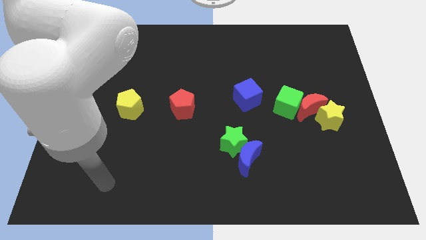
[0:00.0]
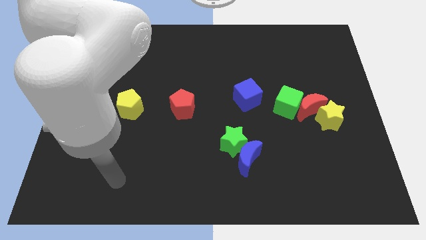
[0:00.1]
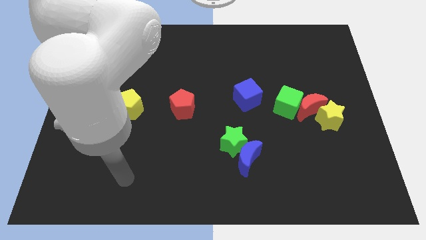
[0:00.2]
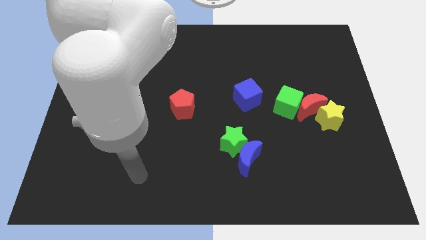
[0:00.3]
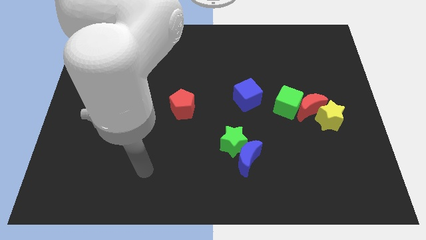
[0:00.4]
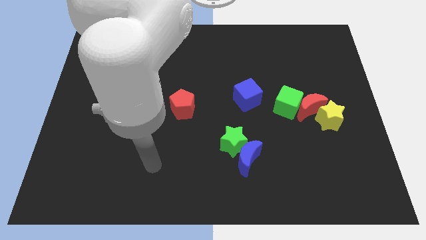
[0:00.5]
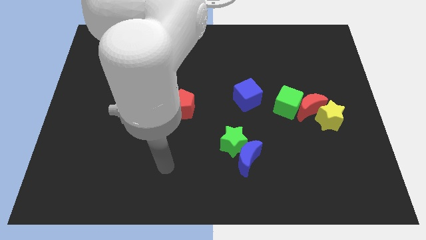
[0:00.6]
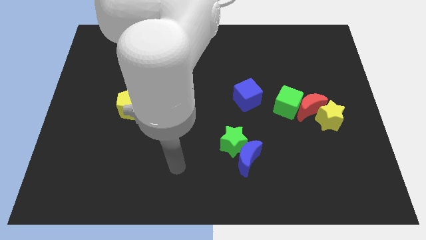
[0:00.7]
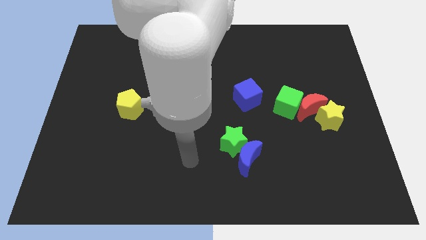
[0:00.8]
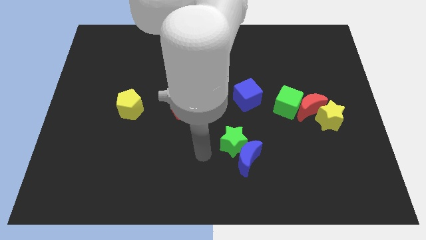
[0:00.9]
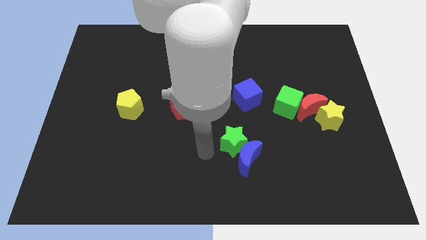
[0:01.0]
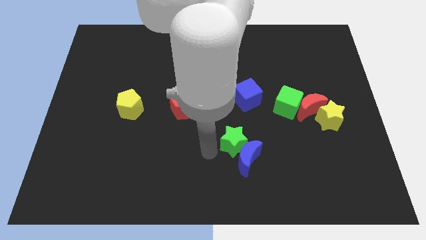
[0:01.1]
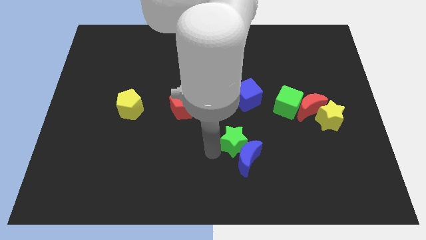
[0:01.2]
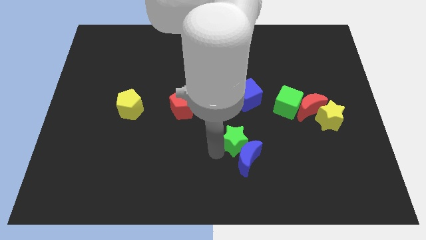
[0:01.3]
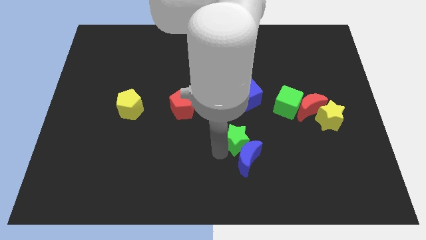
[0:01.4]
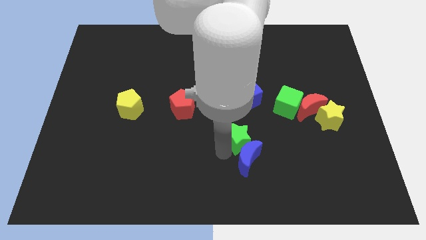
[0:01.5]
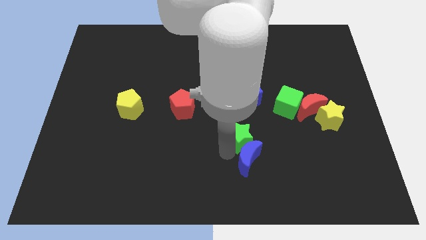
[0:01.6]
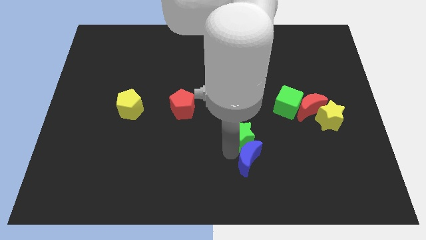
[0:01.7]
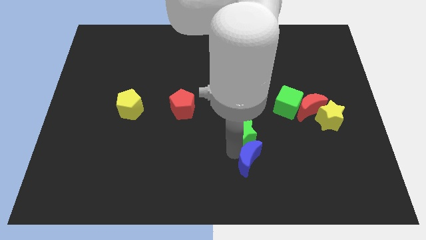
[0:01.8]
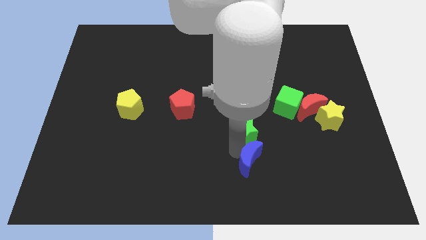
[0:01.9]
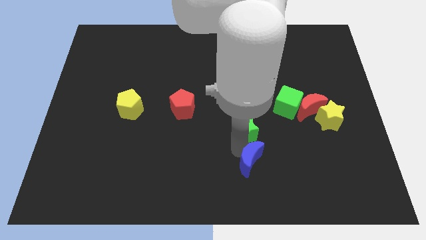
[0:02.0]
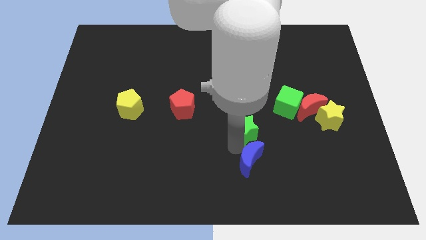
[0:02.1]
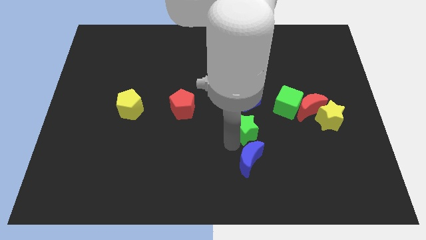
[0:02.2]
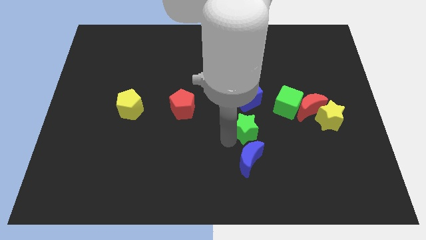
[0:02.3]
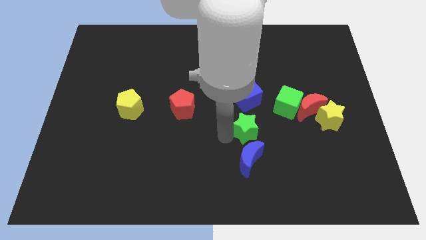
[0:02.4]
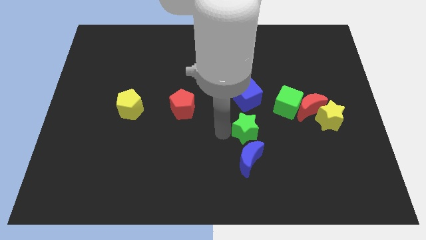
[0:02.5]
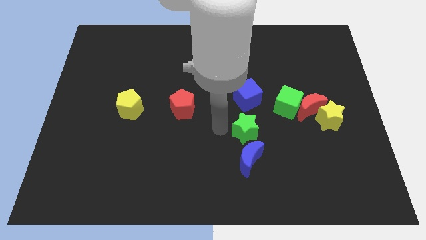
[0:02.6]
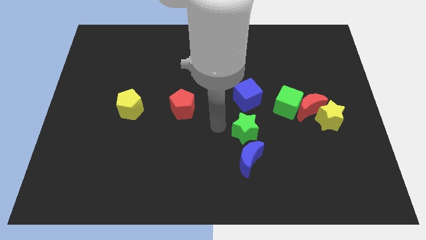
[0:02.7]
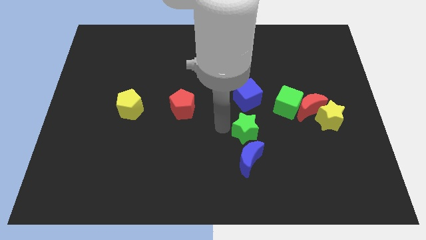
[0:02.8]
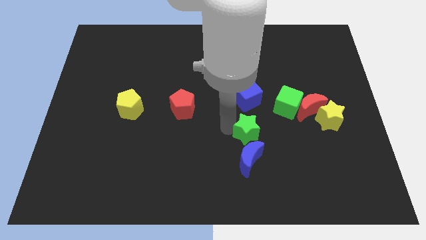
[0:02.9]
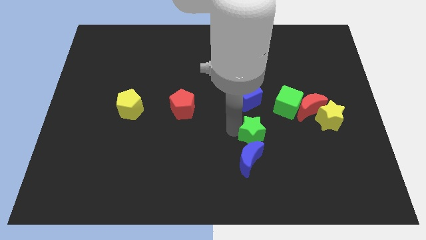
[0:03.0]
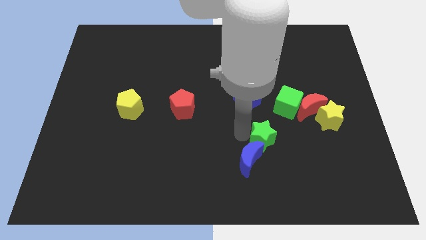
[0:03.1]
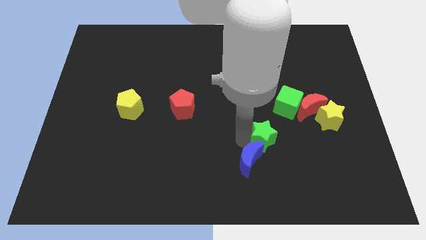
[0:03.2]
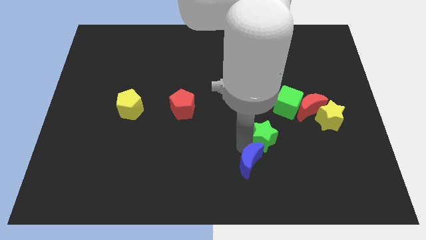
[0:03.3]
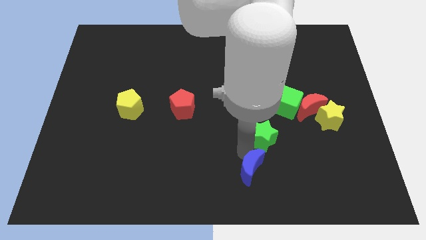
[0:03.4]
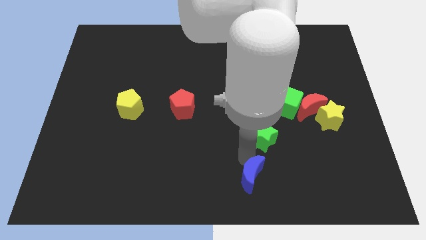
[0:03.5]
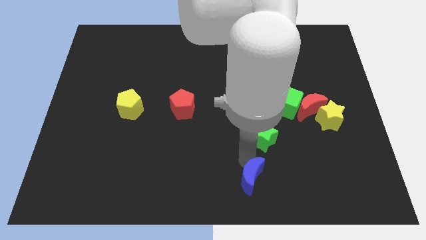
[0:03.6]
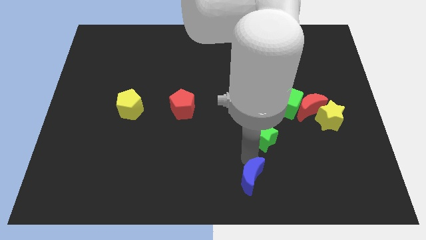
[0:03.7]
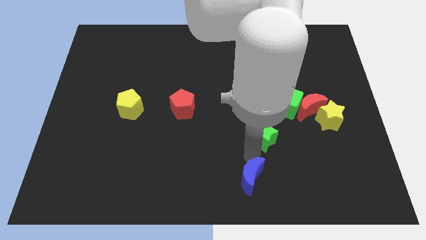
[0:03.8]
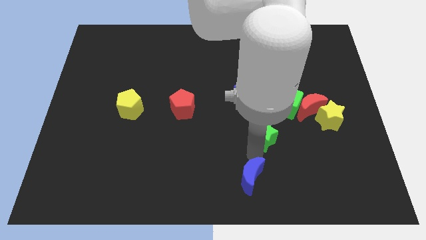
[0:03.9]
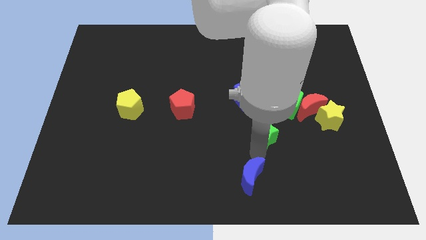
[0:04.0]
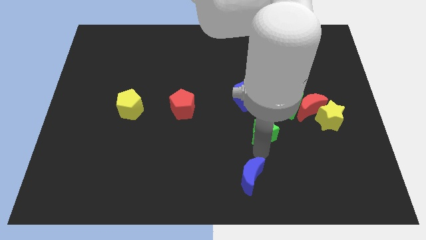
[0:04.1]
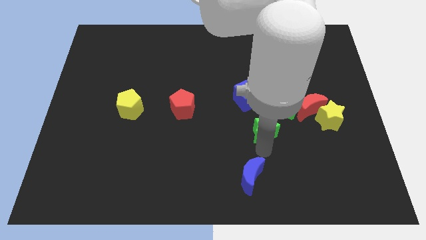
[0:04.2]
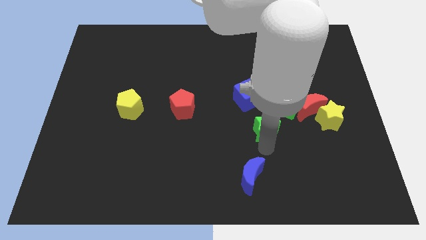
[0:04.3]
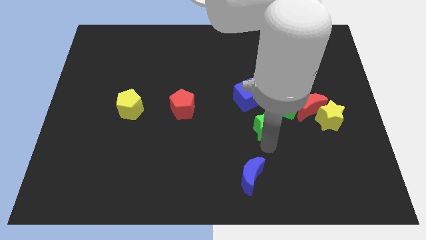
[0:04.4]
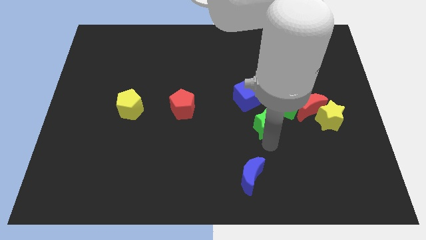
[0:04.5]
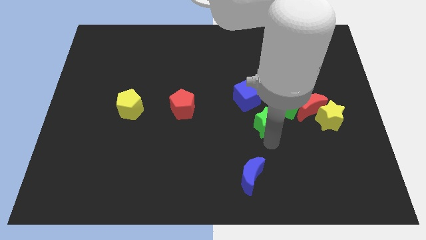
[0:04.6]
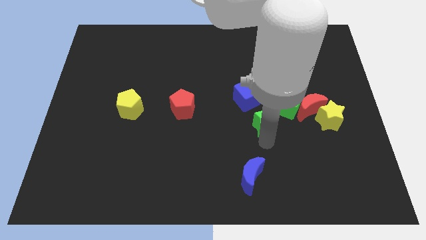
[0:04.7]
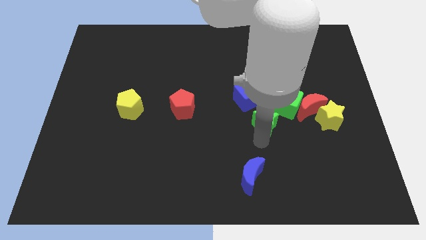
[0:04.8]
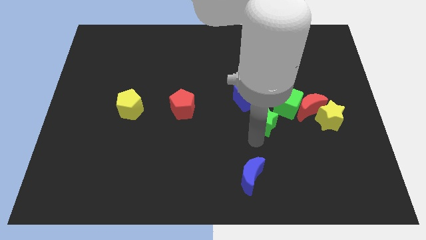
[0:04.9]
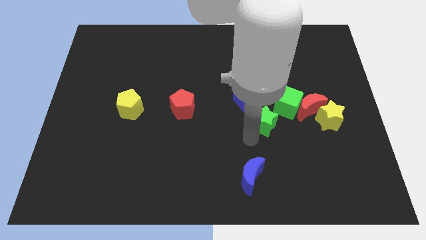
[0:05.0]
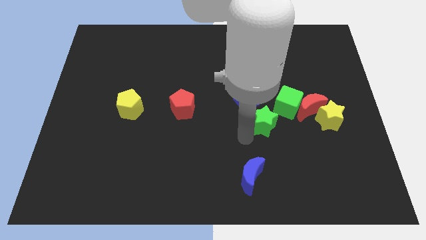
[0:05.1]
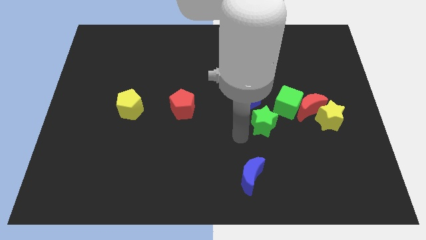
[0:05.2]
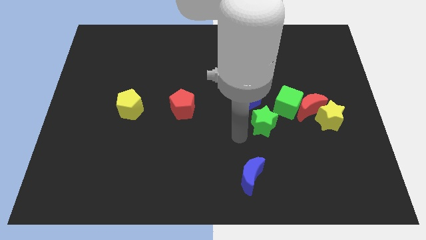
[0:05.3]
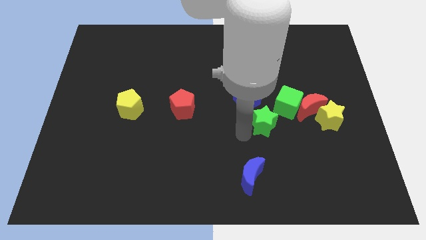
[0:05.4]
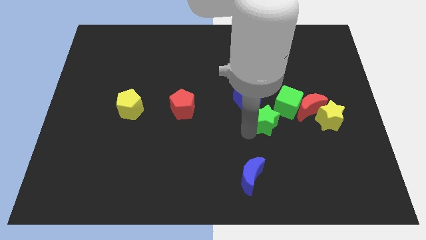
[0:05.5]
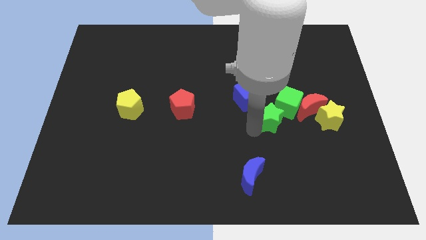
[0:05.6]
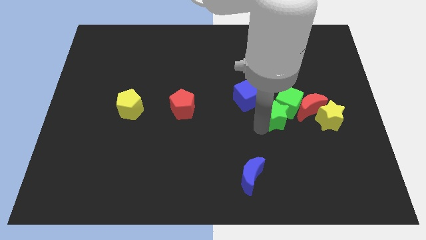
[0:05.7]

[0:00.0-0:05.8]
put the green star close to the green cube

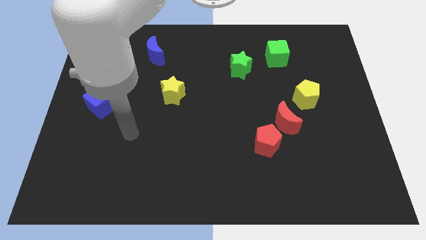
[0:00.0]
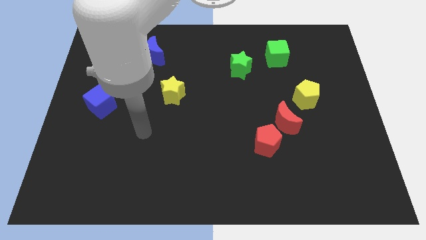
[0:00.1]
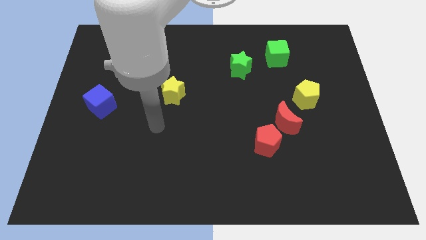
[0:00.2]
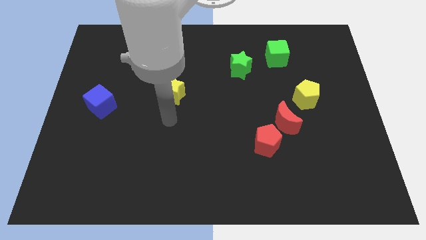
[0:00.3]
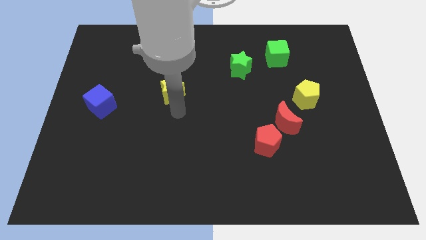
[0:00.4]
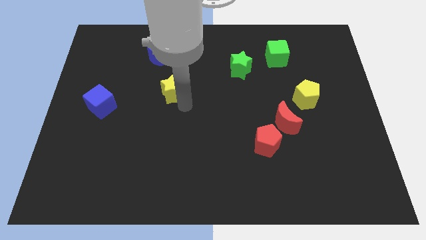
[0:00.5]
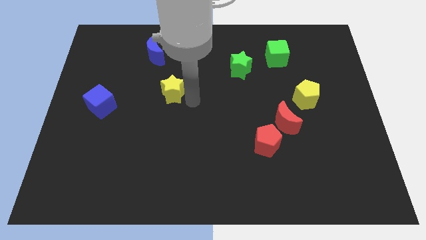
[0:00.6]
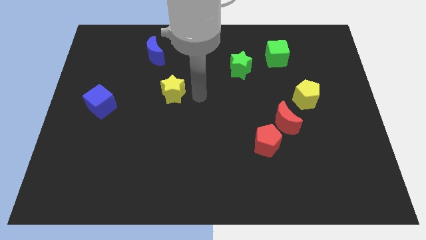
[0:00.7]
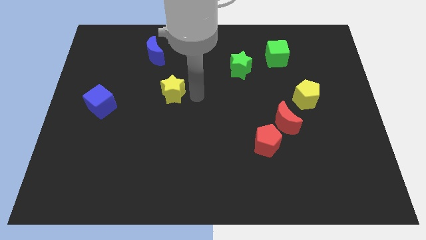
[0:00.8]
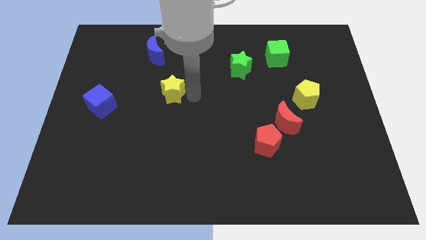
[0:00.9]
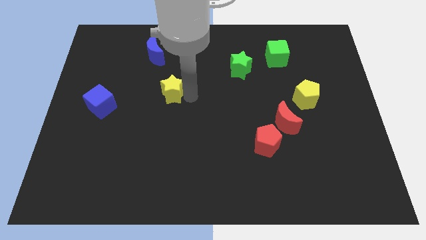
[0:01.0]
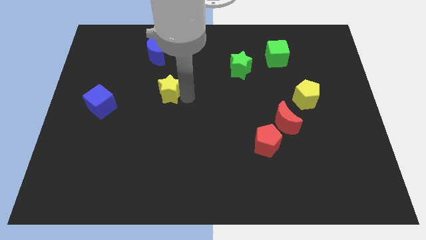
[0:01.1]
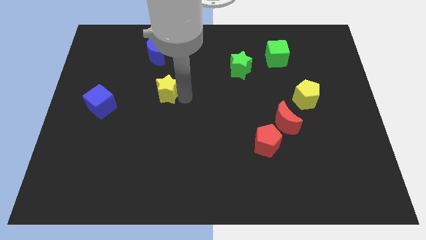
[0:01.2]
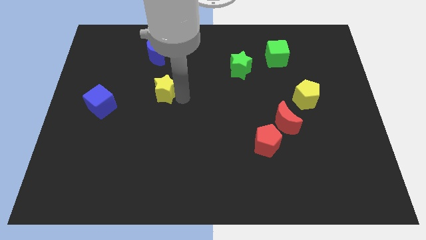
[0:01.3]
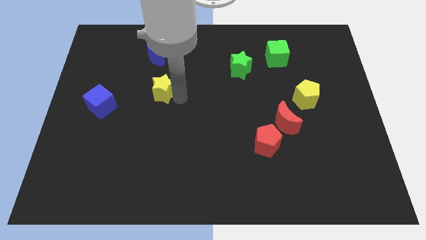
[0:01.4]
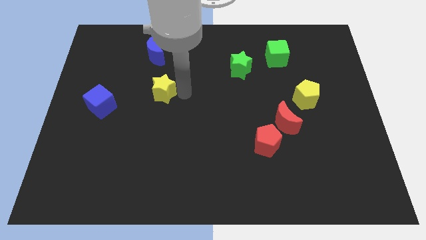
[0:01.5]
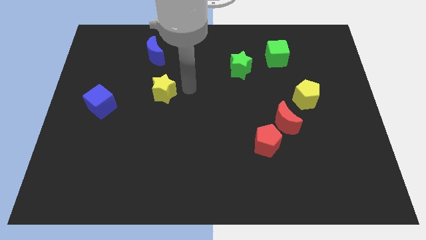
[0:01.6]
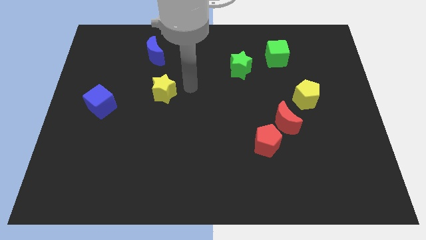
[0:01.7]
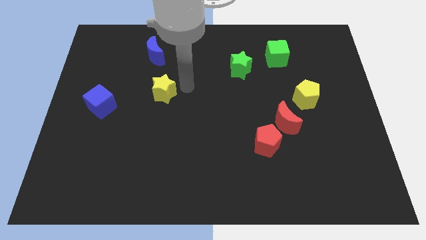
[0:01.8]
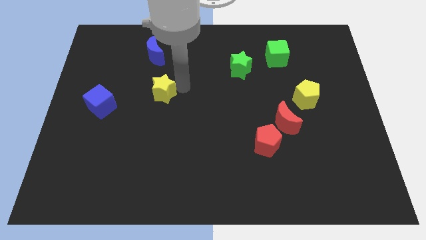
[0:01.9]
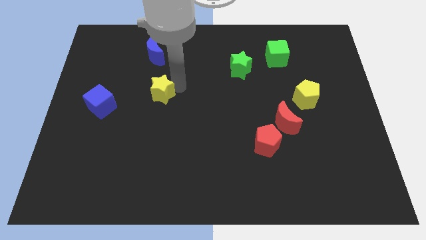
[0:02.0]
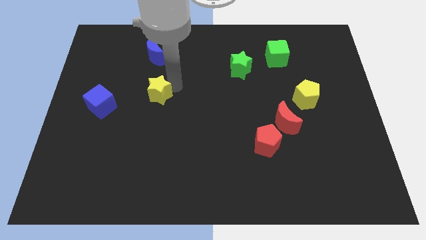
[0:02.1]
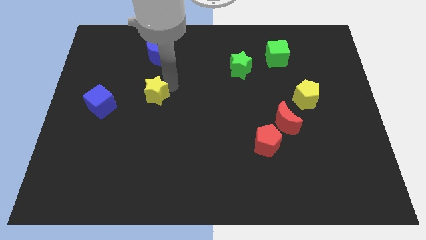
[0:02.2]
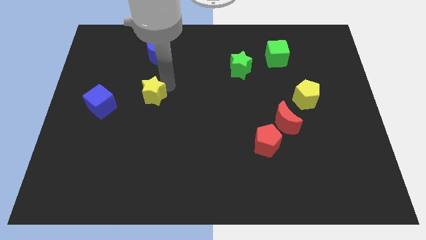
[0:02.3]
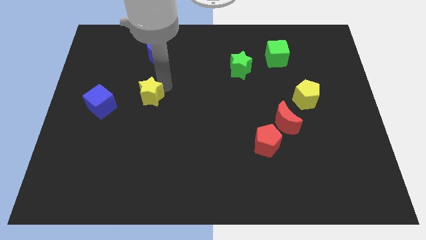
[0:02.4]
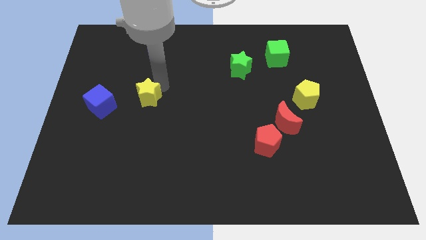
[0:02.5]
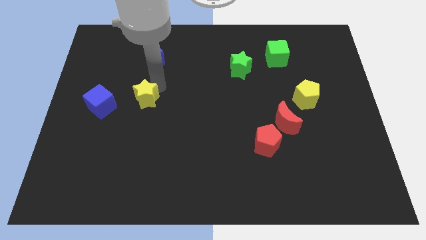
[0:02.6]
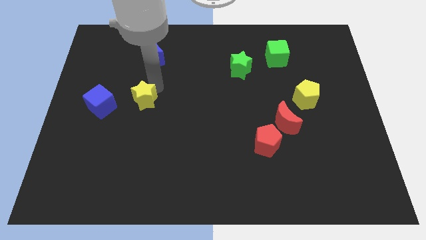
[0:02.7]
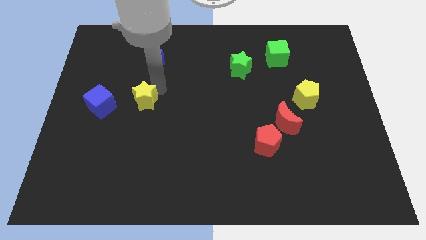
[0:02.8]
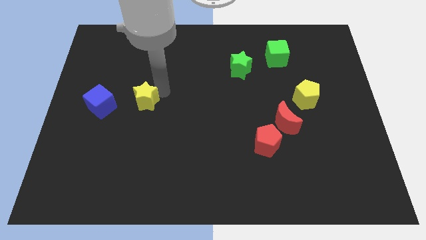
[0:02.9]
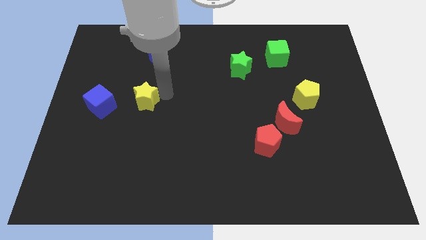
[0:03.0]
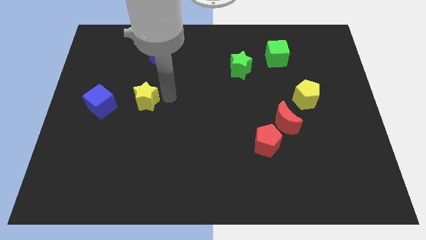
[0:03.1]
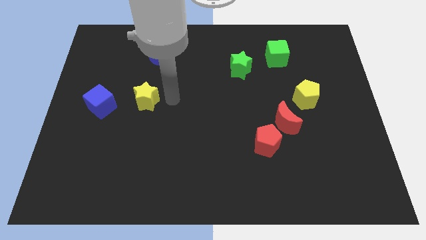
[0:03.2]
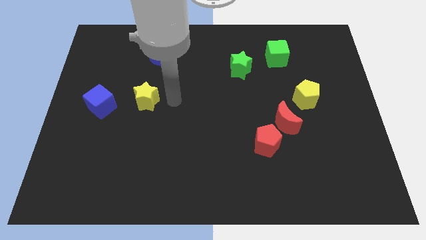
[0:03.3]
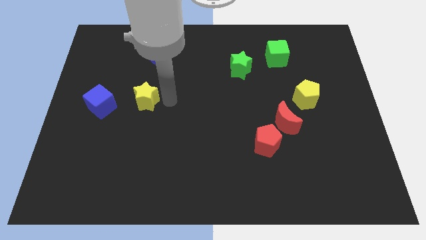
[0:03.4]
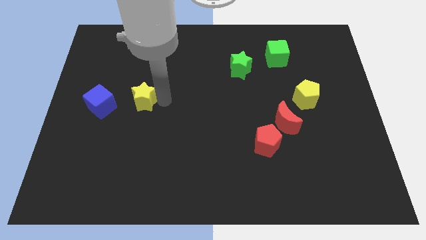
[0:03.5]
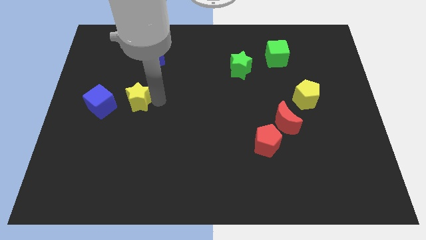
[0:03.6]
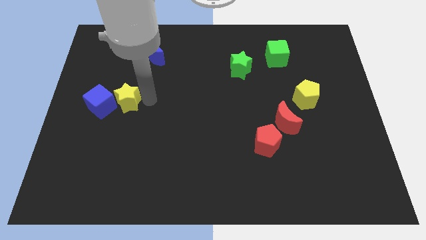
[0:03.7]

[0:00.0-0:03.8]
put the yellow star close to the blue cube
